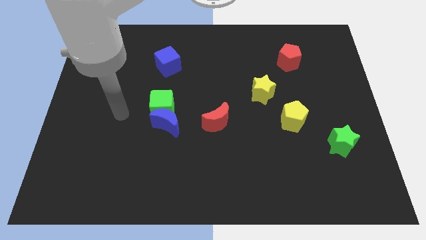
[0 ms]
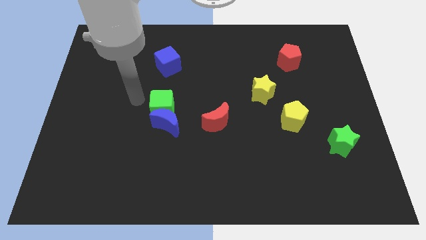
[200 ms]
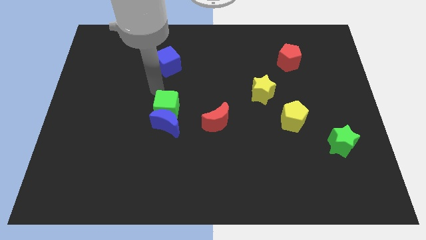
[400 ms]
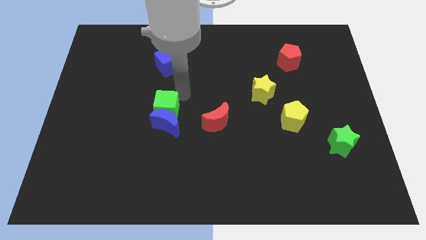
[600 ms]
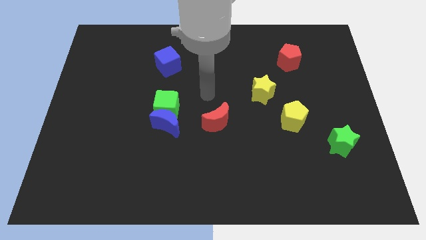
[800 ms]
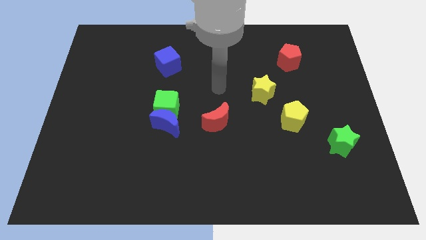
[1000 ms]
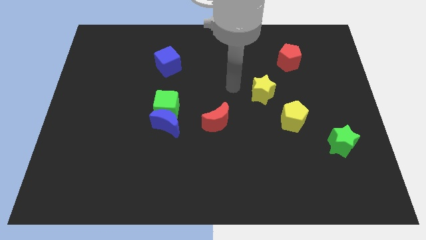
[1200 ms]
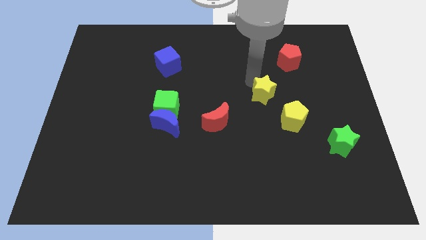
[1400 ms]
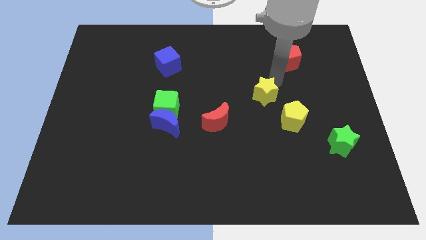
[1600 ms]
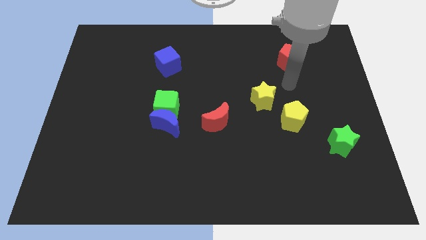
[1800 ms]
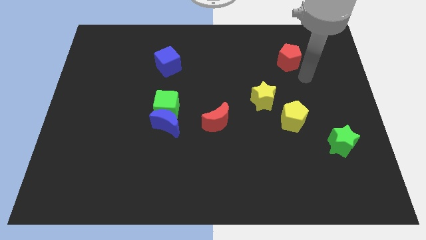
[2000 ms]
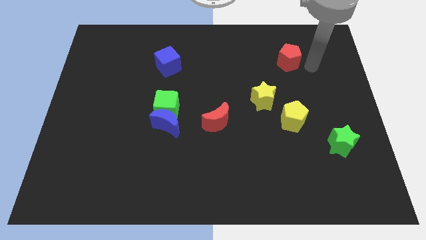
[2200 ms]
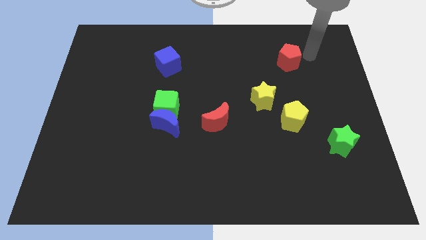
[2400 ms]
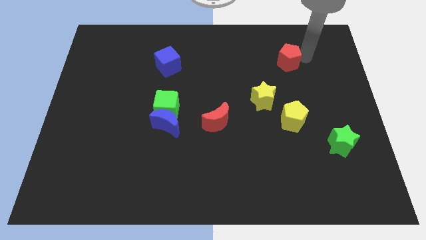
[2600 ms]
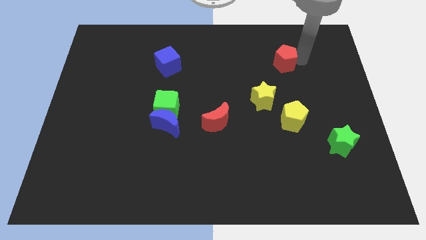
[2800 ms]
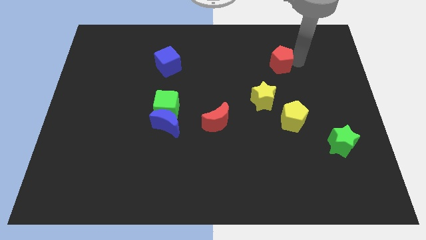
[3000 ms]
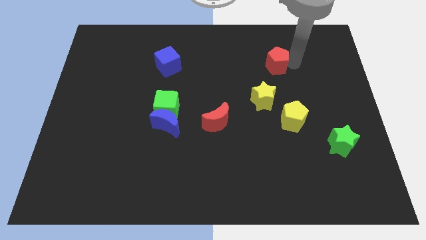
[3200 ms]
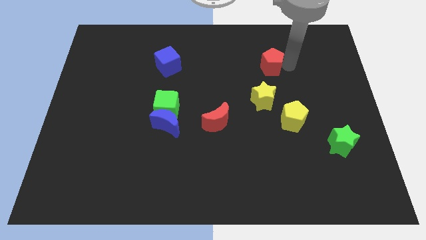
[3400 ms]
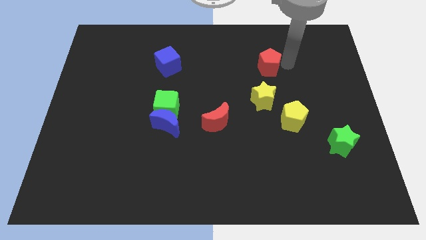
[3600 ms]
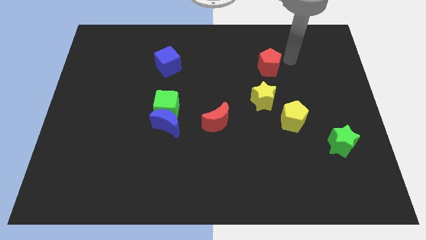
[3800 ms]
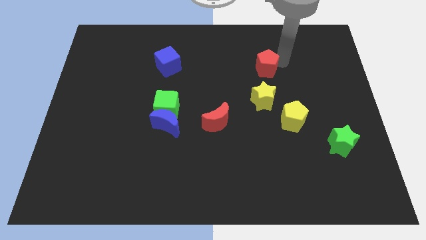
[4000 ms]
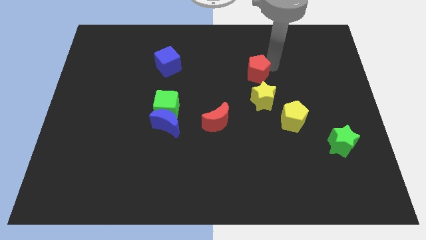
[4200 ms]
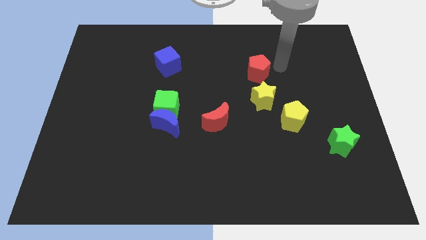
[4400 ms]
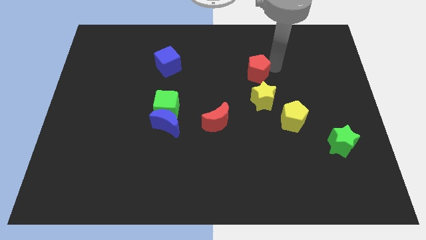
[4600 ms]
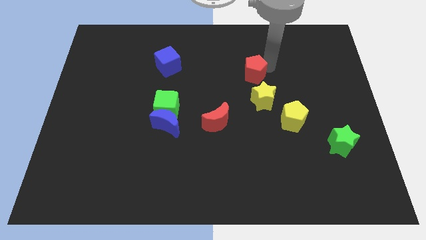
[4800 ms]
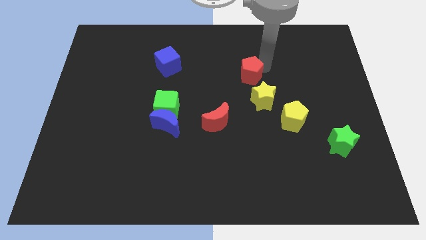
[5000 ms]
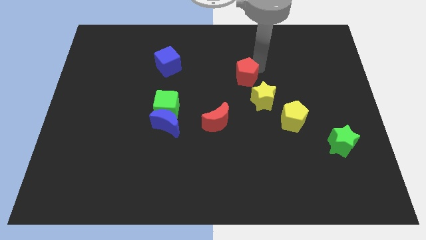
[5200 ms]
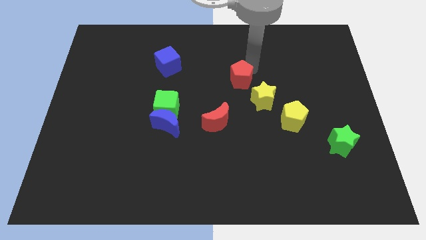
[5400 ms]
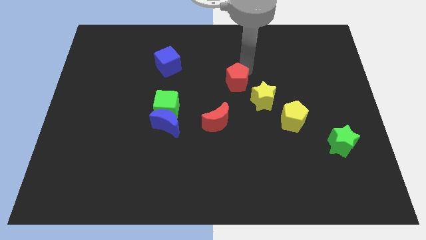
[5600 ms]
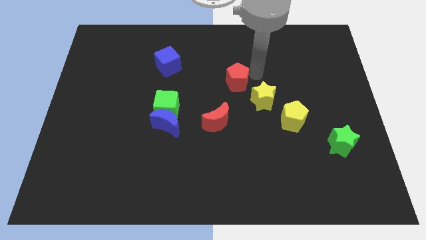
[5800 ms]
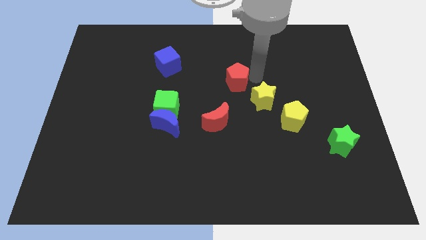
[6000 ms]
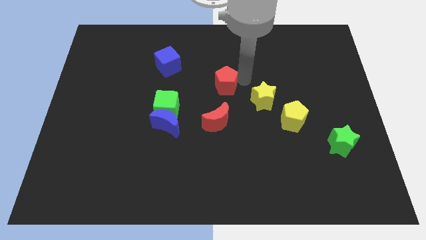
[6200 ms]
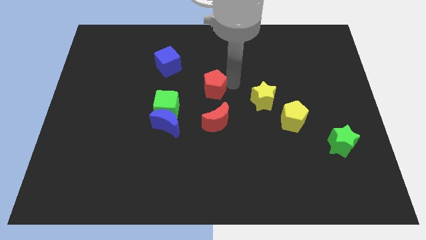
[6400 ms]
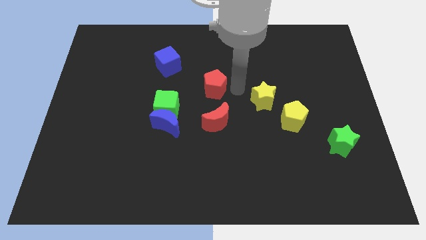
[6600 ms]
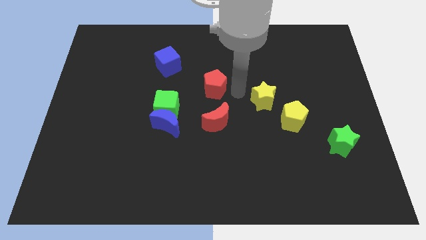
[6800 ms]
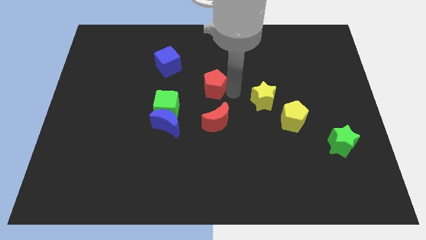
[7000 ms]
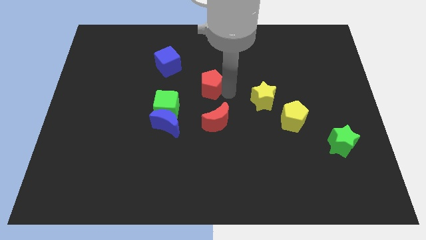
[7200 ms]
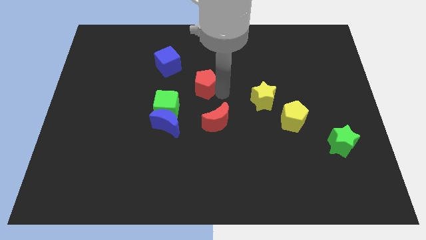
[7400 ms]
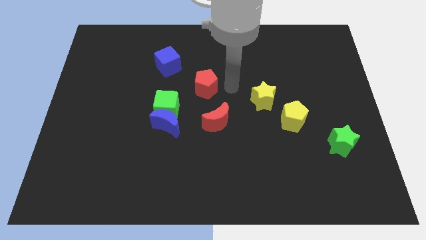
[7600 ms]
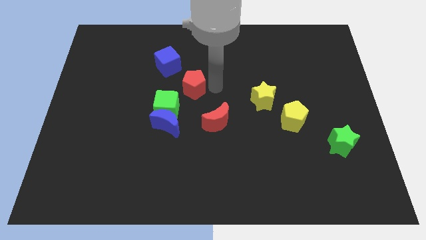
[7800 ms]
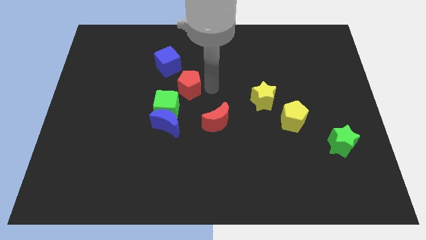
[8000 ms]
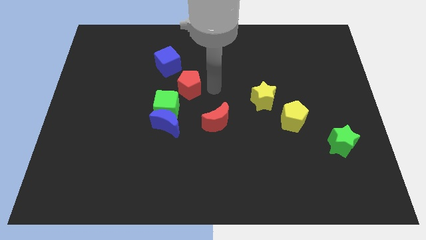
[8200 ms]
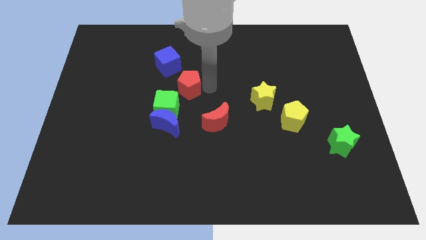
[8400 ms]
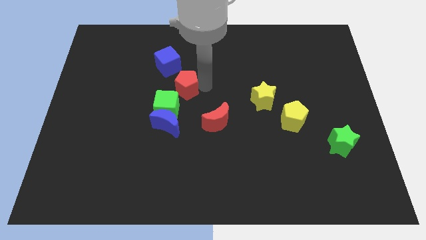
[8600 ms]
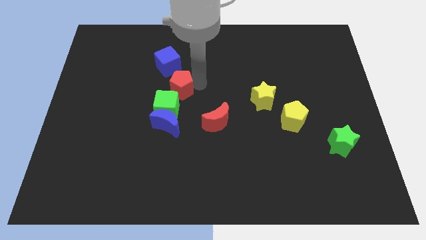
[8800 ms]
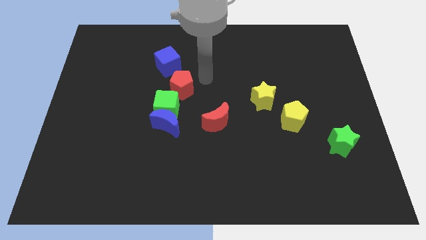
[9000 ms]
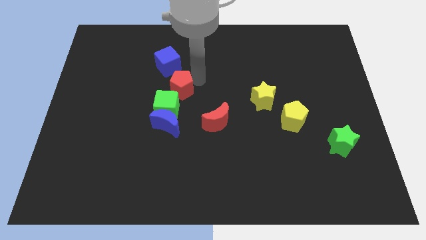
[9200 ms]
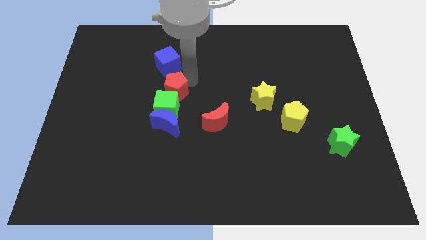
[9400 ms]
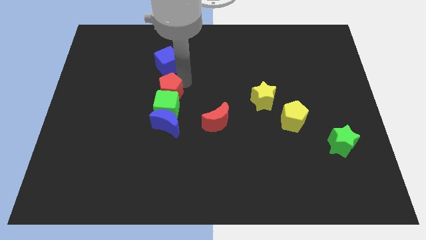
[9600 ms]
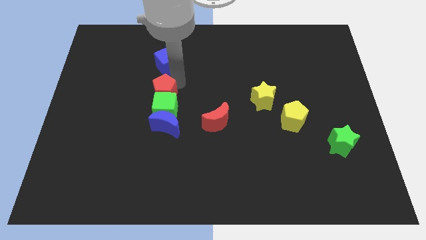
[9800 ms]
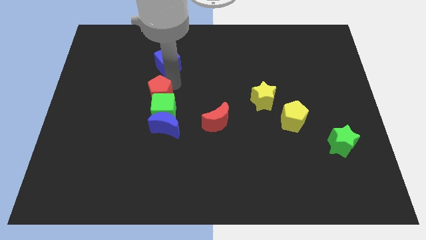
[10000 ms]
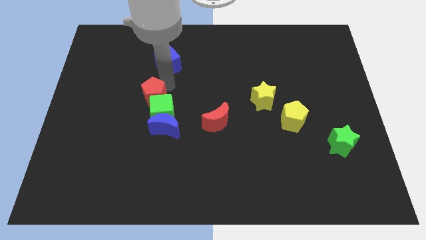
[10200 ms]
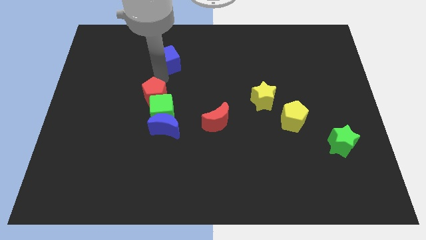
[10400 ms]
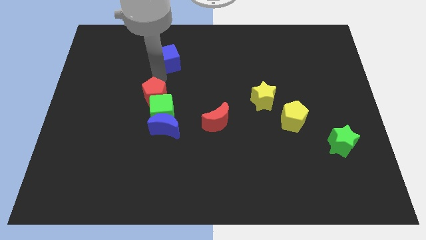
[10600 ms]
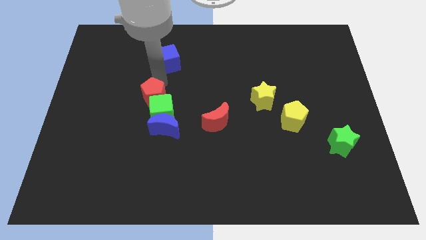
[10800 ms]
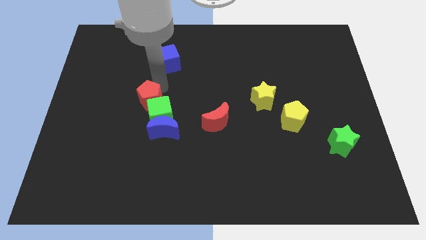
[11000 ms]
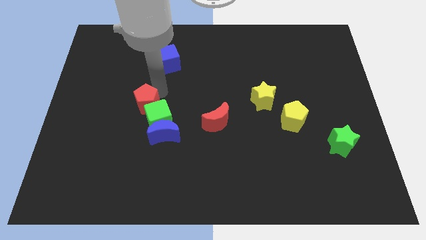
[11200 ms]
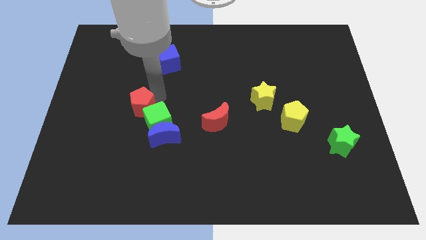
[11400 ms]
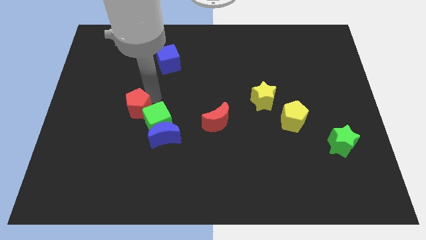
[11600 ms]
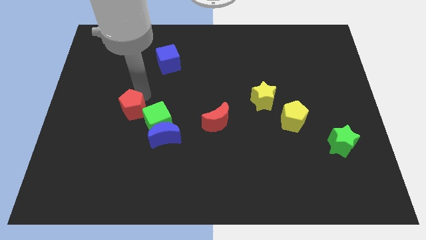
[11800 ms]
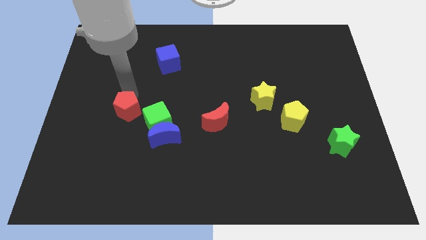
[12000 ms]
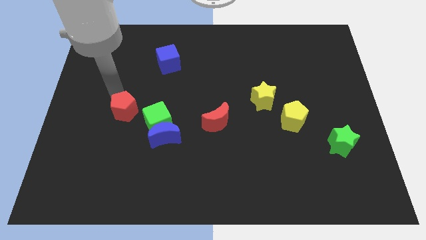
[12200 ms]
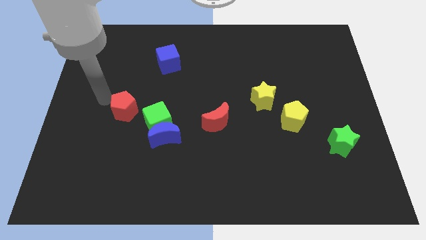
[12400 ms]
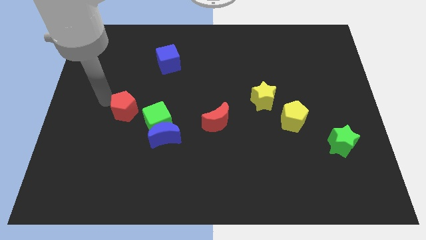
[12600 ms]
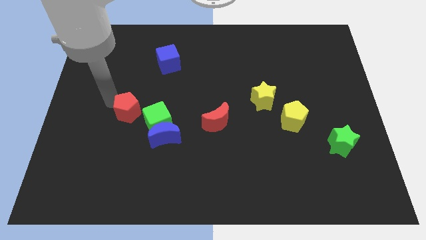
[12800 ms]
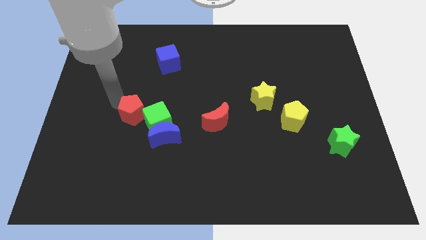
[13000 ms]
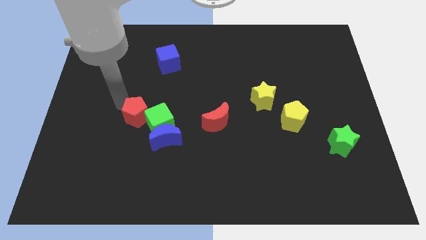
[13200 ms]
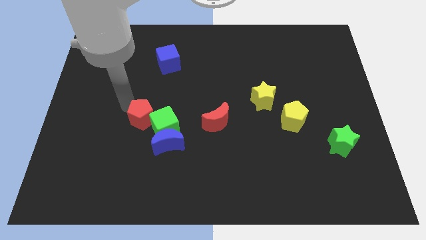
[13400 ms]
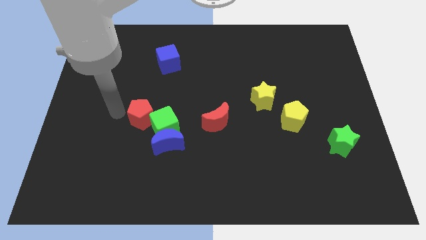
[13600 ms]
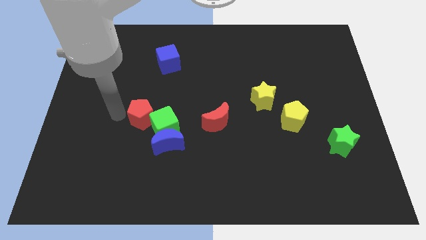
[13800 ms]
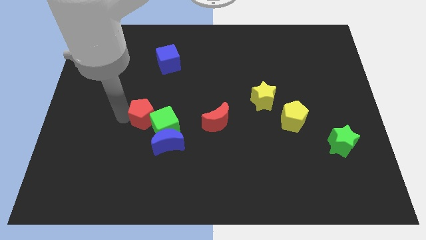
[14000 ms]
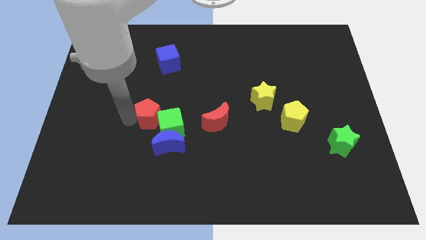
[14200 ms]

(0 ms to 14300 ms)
move the red pentagon to the left side of the red moon
